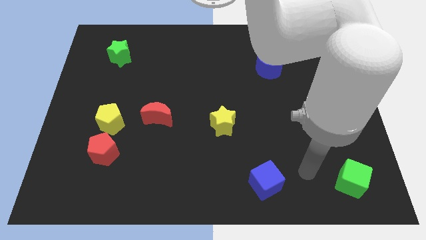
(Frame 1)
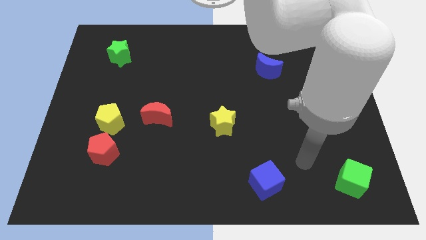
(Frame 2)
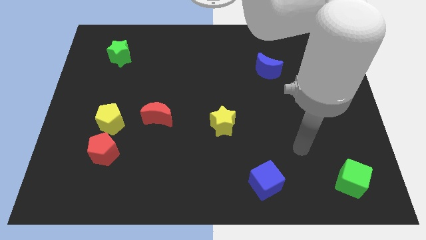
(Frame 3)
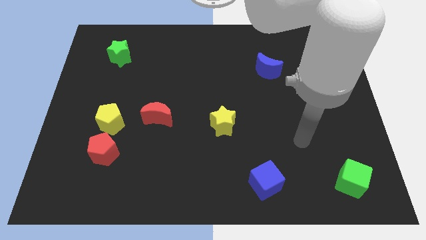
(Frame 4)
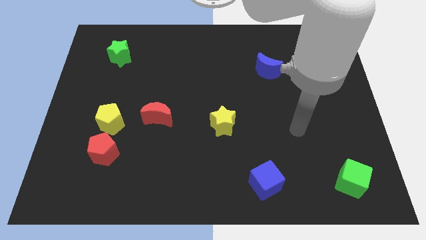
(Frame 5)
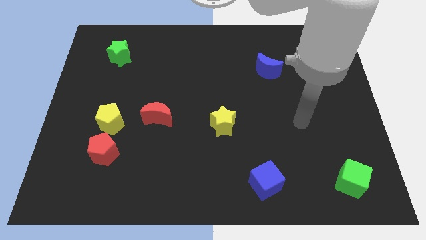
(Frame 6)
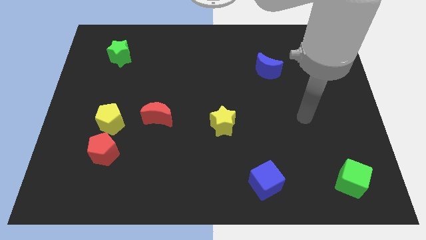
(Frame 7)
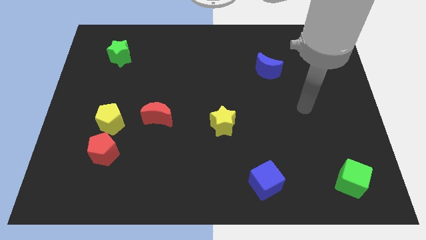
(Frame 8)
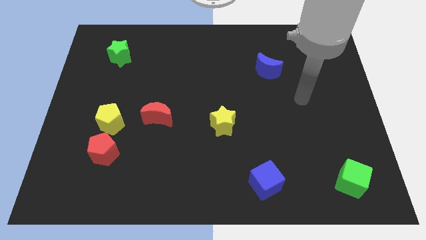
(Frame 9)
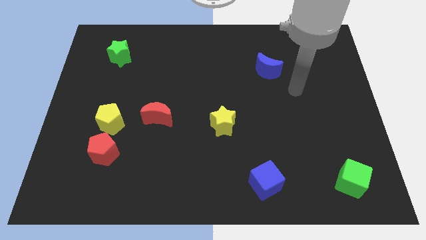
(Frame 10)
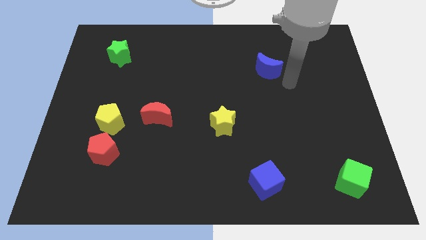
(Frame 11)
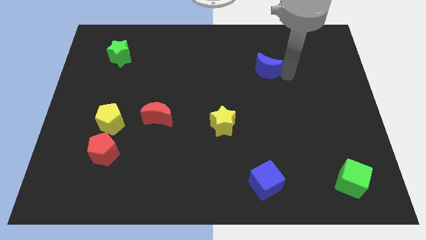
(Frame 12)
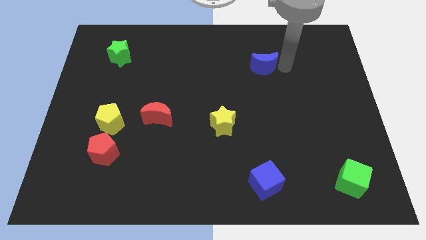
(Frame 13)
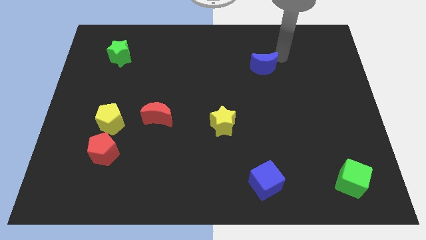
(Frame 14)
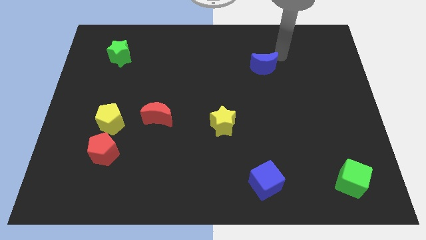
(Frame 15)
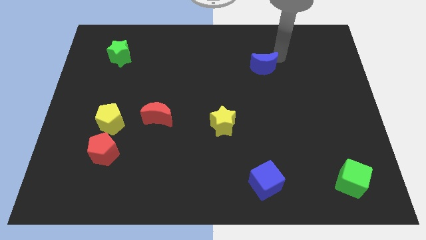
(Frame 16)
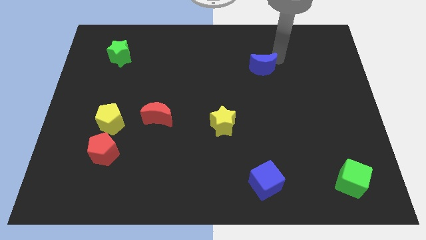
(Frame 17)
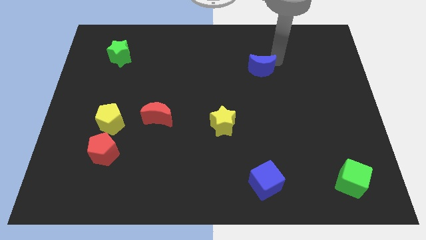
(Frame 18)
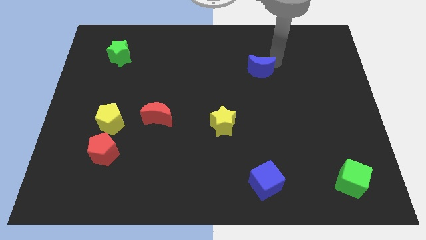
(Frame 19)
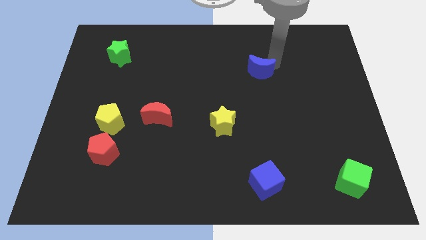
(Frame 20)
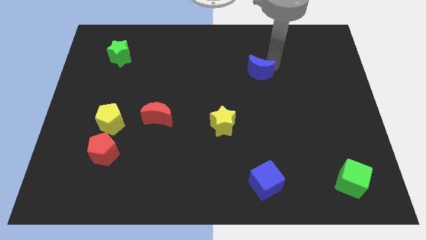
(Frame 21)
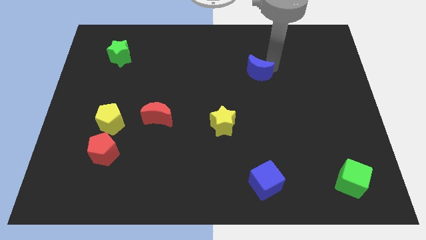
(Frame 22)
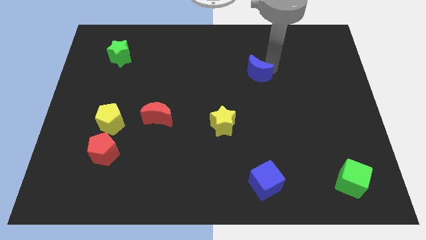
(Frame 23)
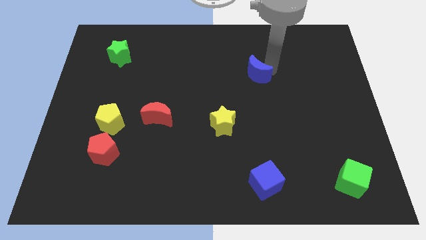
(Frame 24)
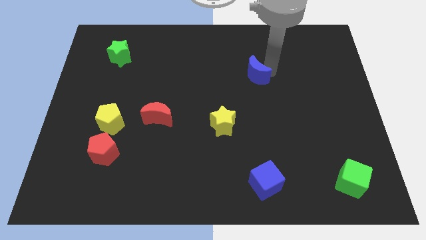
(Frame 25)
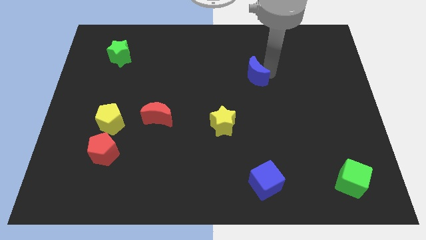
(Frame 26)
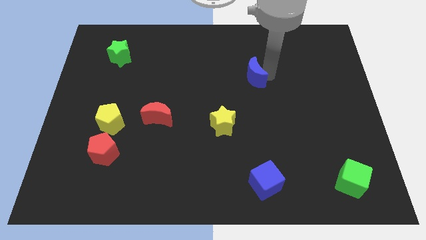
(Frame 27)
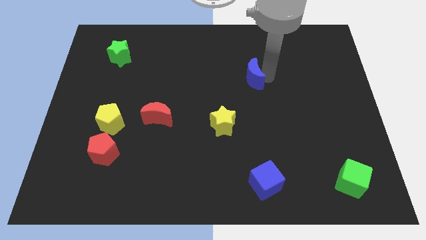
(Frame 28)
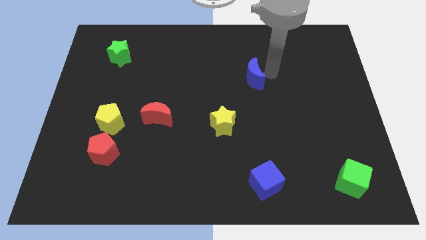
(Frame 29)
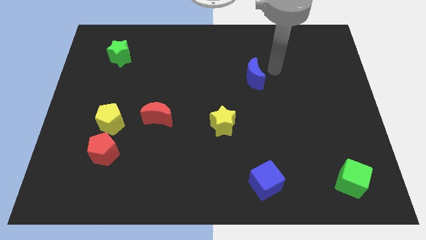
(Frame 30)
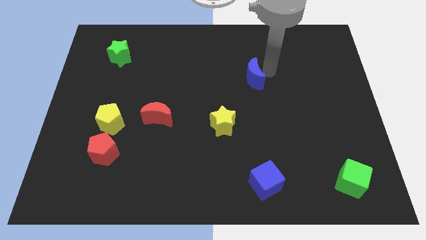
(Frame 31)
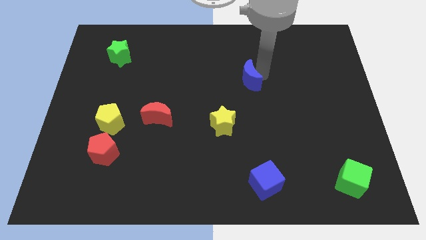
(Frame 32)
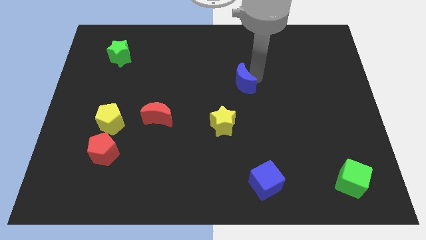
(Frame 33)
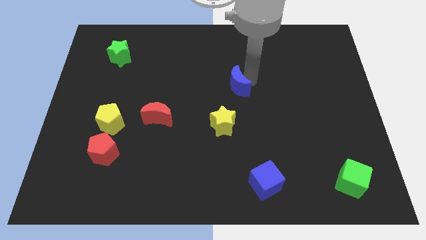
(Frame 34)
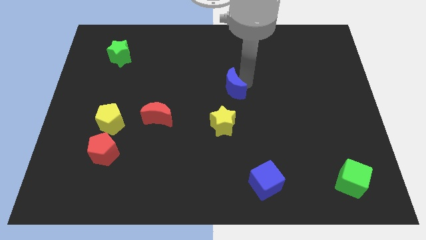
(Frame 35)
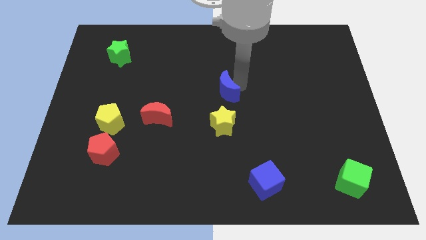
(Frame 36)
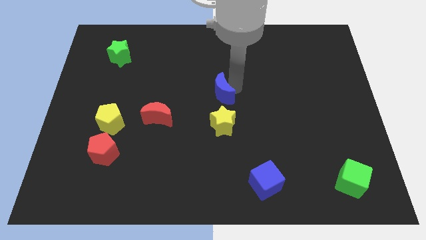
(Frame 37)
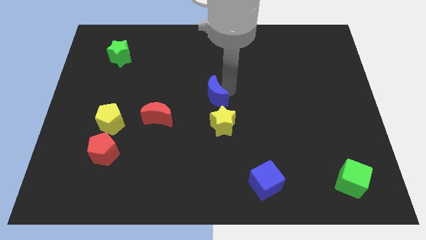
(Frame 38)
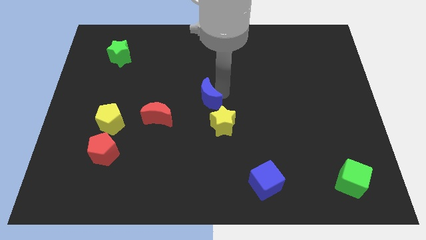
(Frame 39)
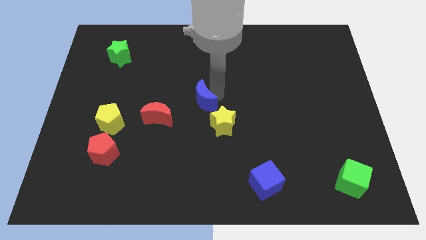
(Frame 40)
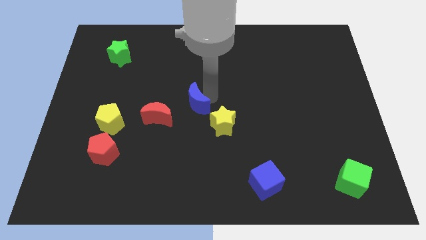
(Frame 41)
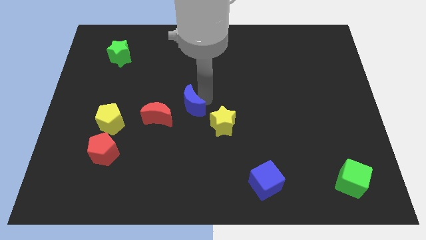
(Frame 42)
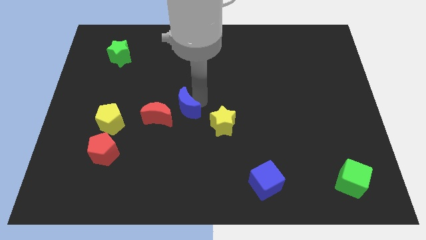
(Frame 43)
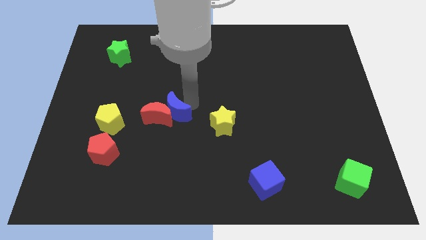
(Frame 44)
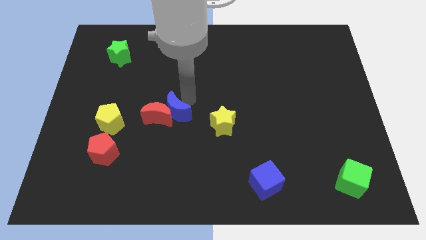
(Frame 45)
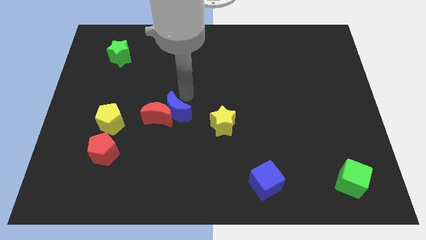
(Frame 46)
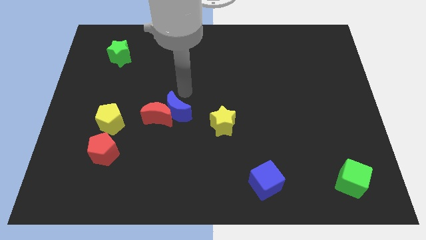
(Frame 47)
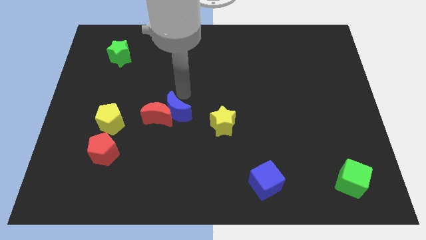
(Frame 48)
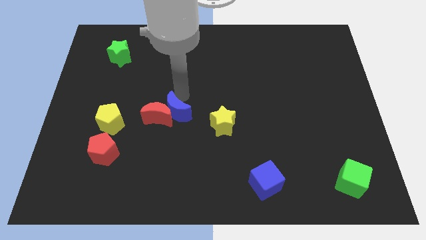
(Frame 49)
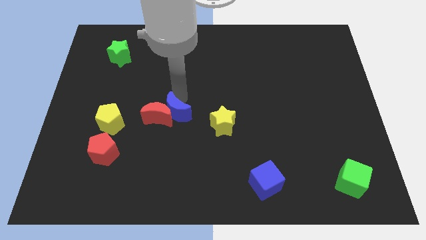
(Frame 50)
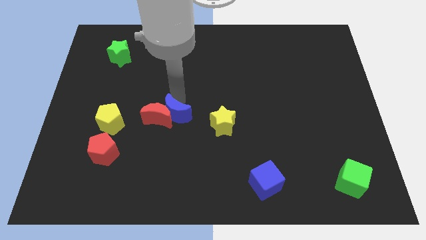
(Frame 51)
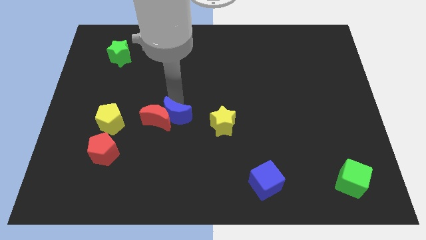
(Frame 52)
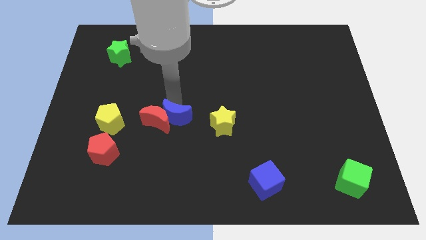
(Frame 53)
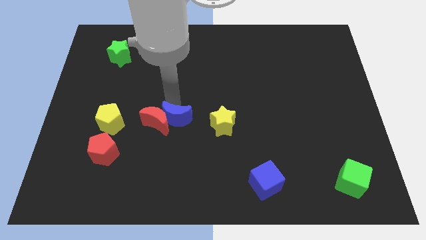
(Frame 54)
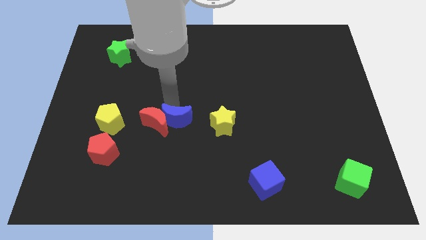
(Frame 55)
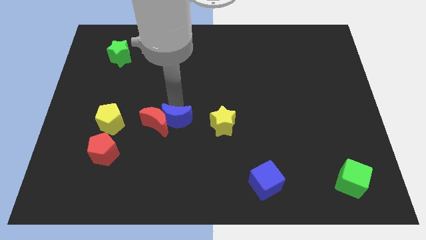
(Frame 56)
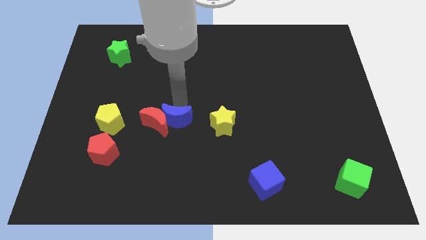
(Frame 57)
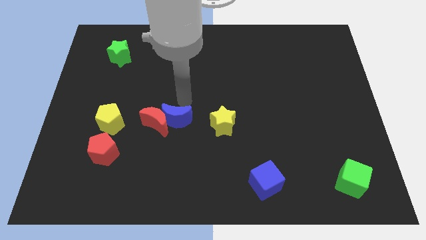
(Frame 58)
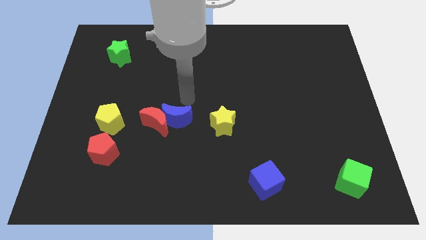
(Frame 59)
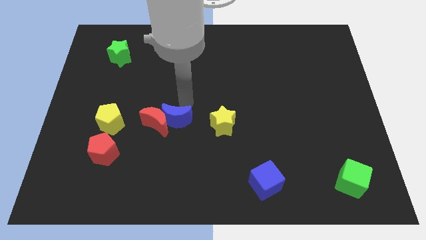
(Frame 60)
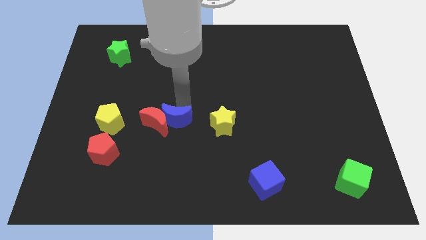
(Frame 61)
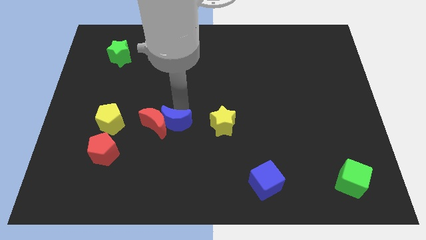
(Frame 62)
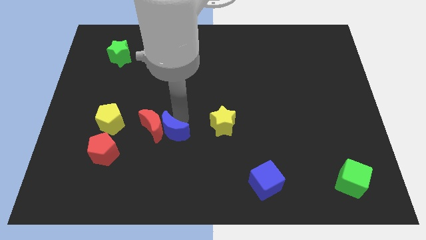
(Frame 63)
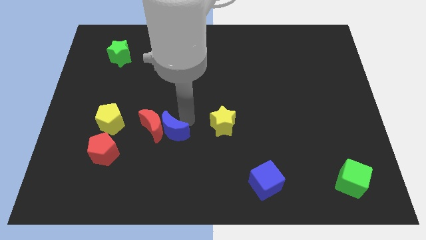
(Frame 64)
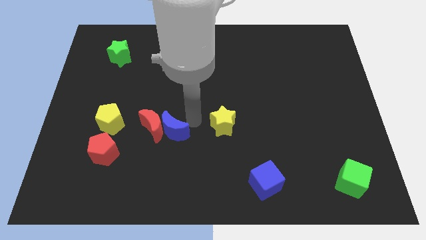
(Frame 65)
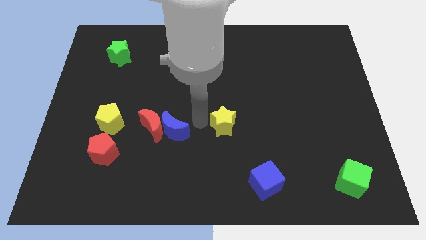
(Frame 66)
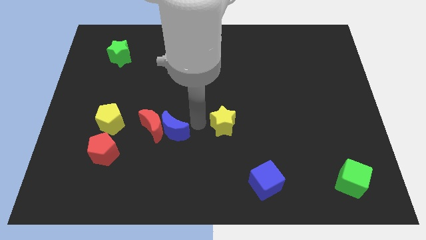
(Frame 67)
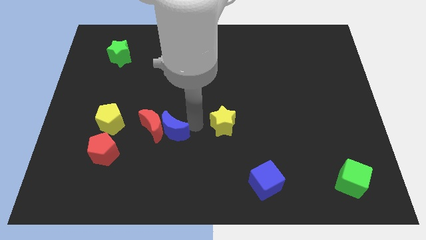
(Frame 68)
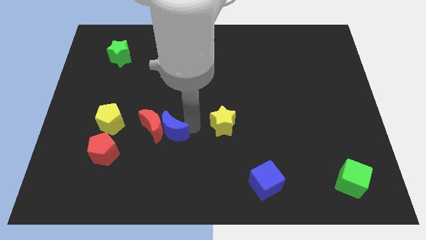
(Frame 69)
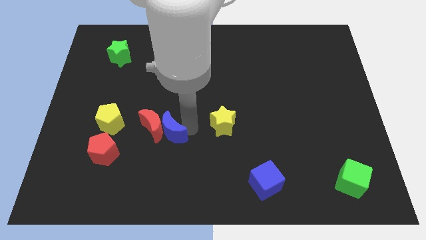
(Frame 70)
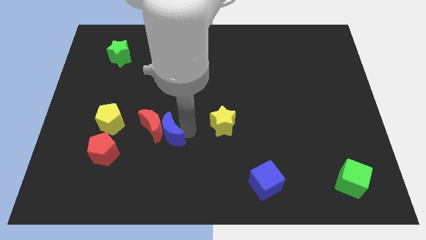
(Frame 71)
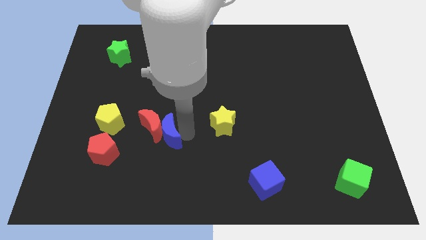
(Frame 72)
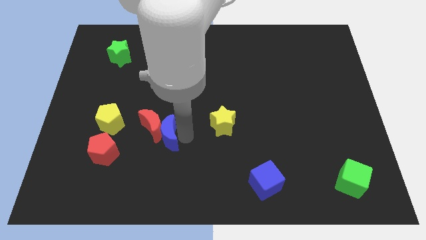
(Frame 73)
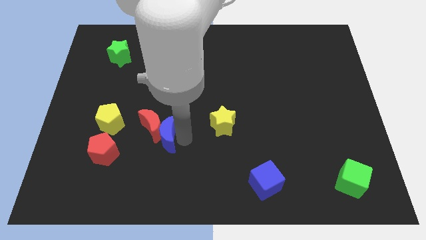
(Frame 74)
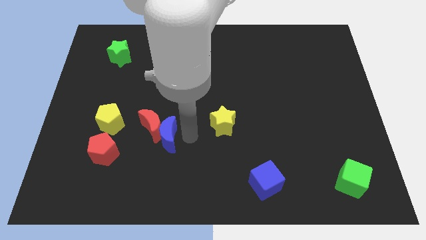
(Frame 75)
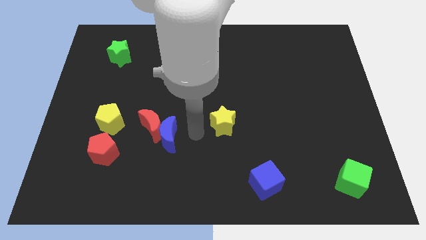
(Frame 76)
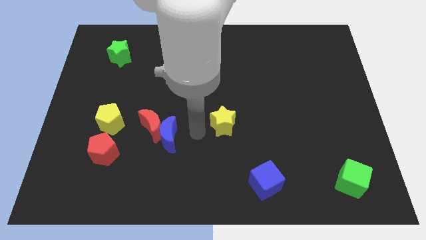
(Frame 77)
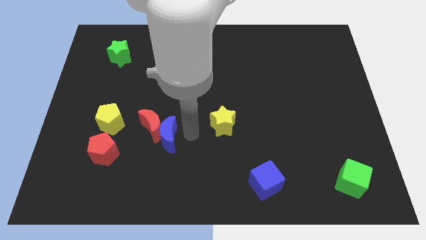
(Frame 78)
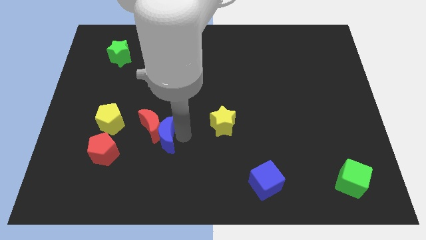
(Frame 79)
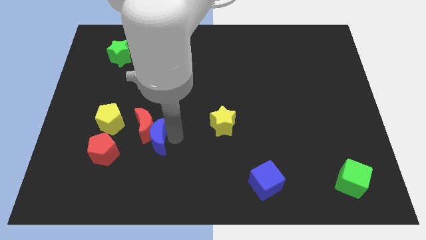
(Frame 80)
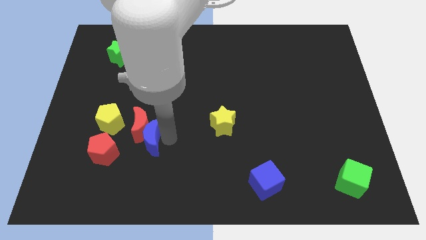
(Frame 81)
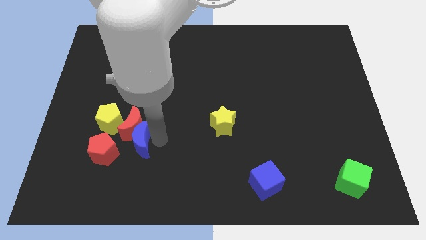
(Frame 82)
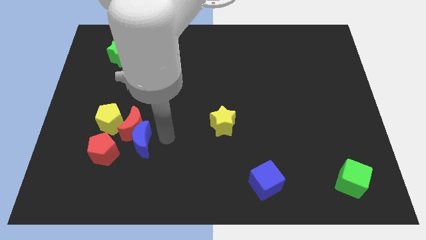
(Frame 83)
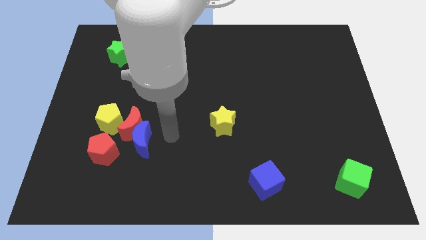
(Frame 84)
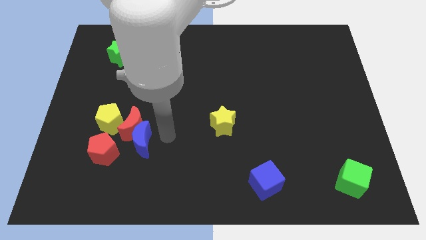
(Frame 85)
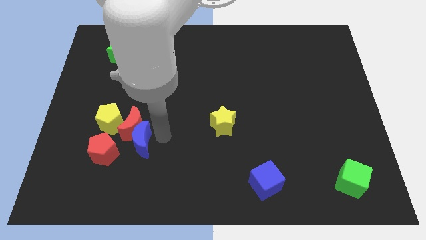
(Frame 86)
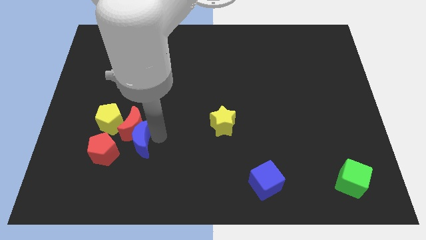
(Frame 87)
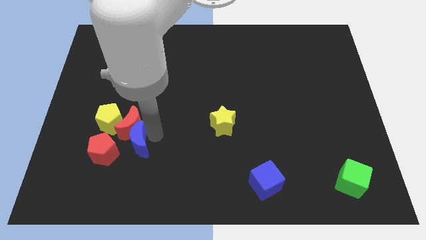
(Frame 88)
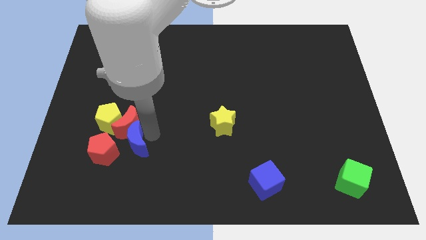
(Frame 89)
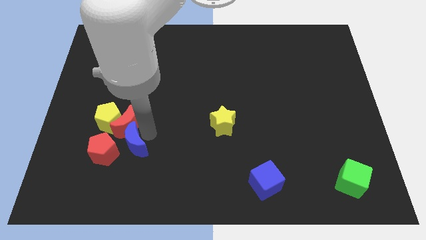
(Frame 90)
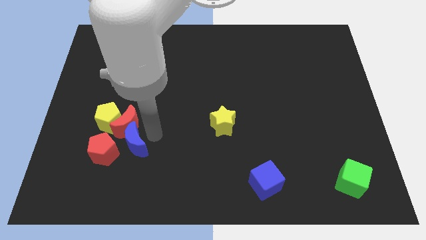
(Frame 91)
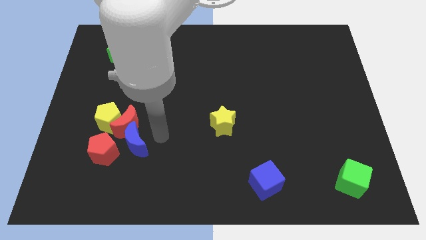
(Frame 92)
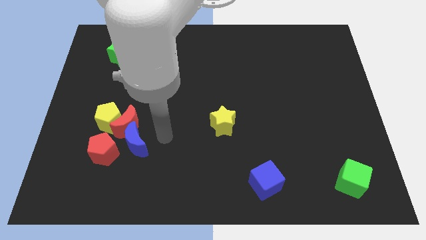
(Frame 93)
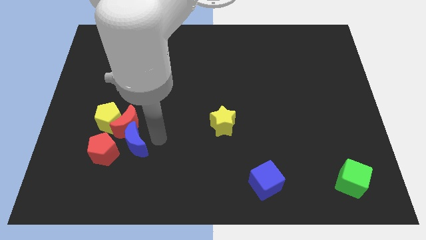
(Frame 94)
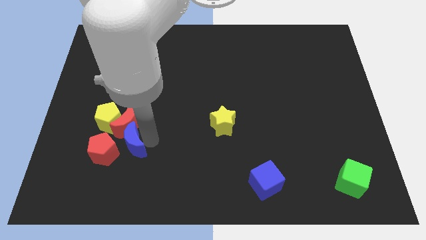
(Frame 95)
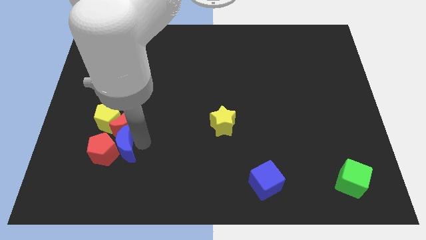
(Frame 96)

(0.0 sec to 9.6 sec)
put the blue moon close to the red pentagon
